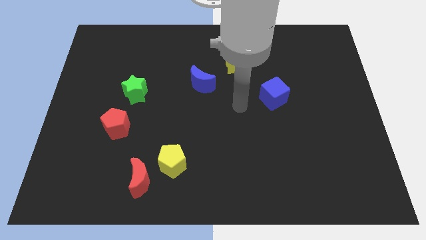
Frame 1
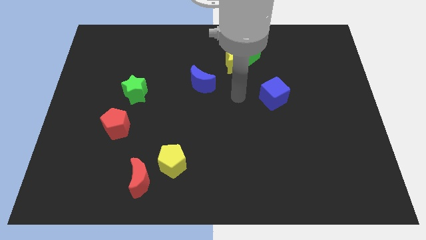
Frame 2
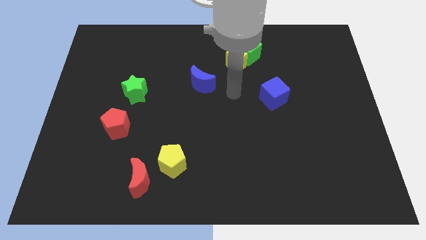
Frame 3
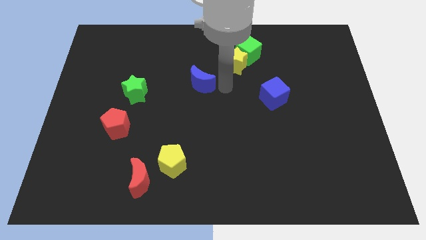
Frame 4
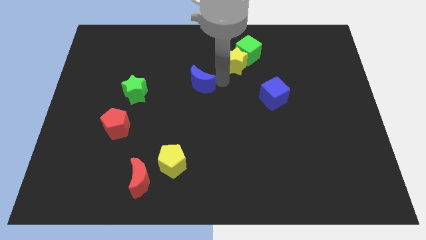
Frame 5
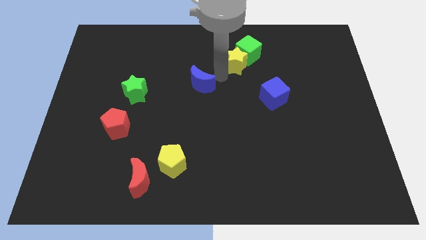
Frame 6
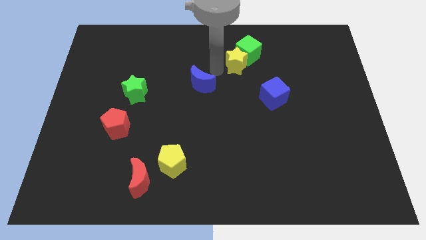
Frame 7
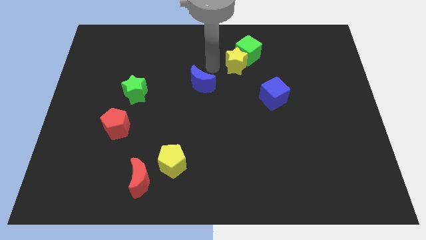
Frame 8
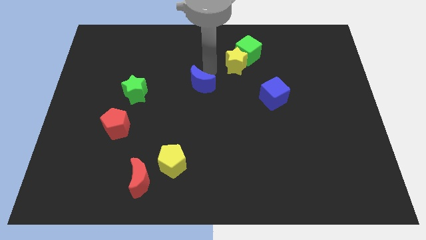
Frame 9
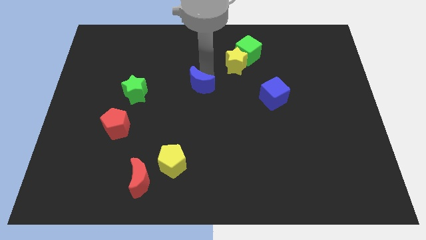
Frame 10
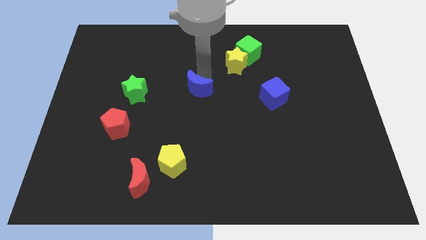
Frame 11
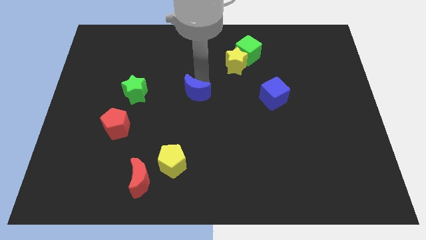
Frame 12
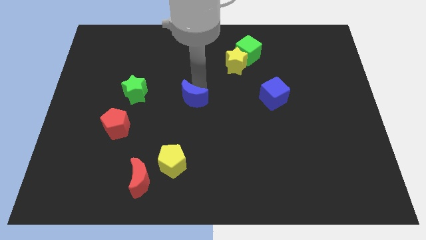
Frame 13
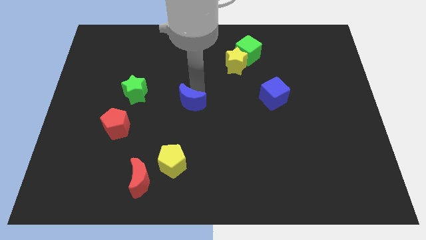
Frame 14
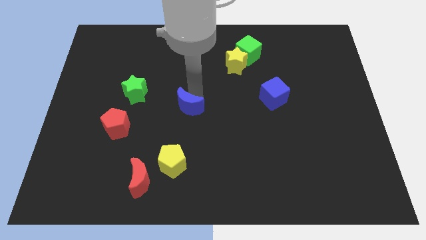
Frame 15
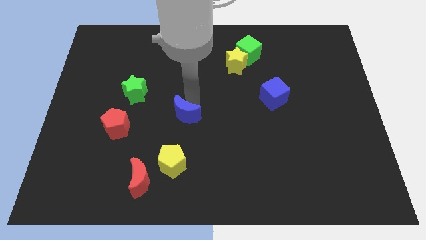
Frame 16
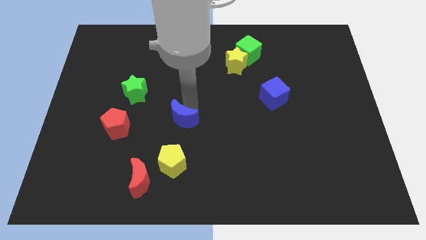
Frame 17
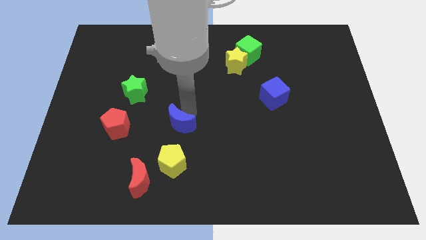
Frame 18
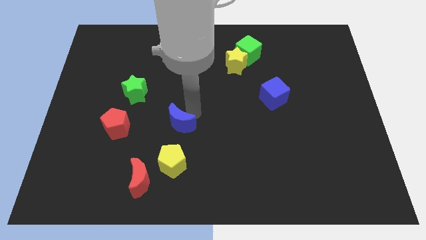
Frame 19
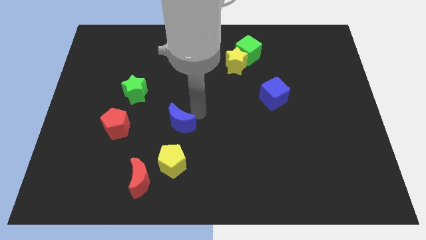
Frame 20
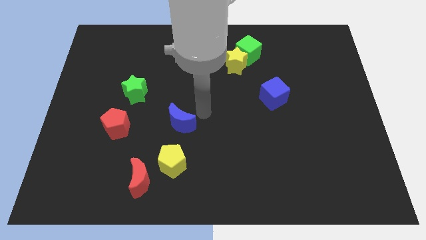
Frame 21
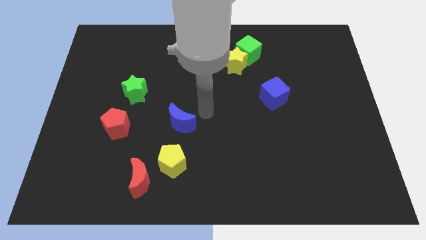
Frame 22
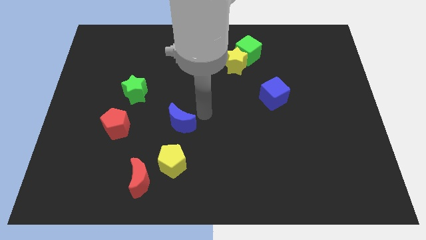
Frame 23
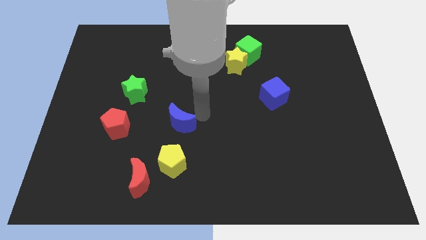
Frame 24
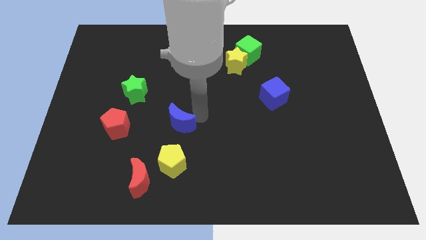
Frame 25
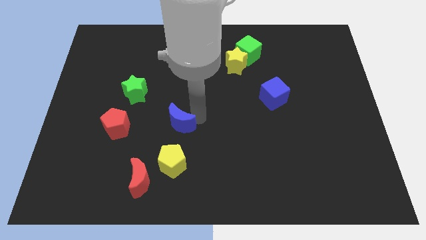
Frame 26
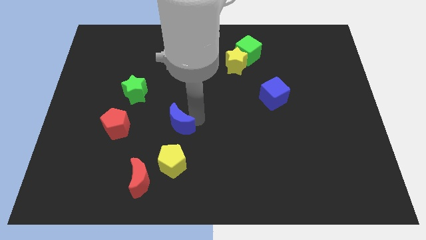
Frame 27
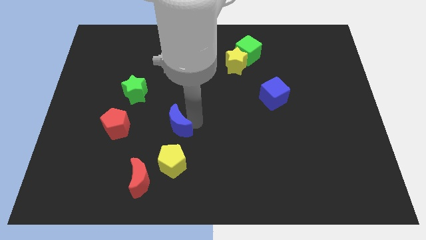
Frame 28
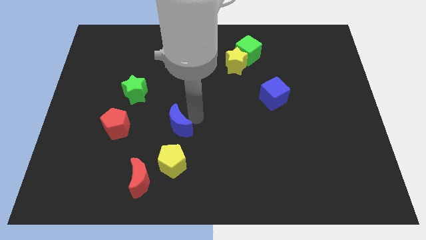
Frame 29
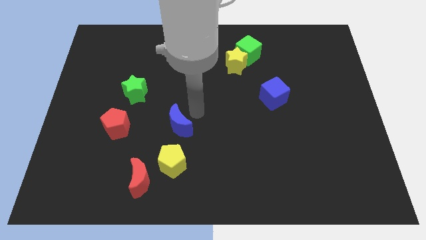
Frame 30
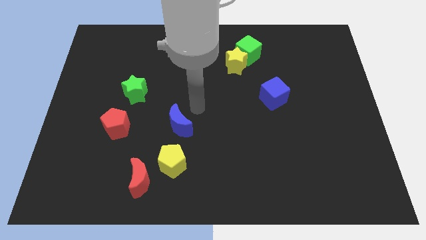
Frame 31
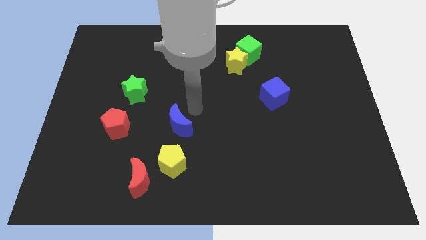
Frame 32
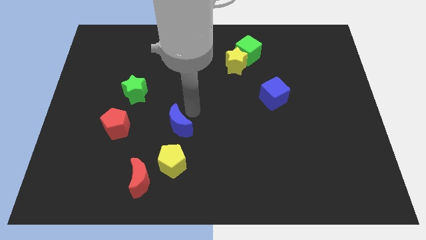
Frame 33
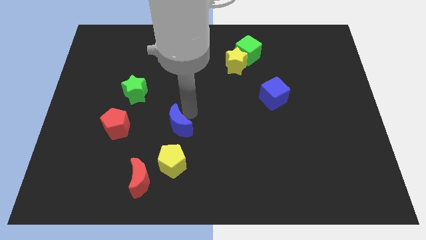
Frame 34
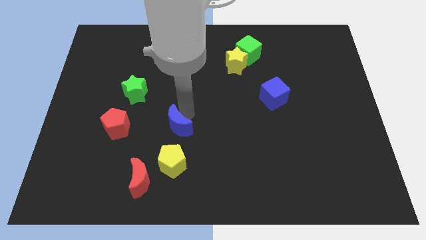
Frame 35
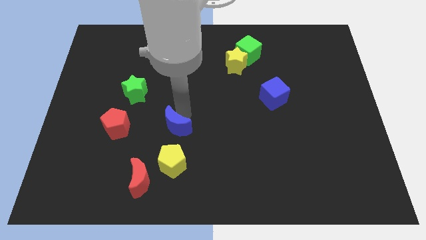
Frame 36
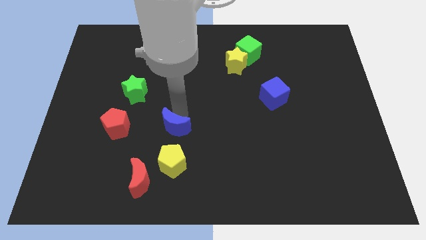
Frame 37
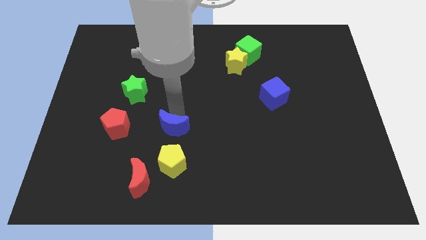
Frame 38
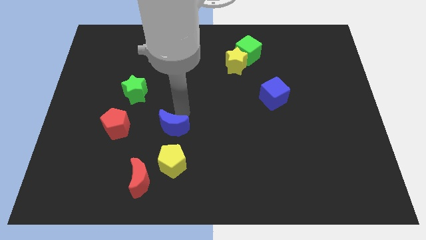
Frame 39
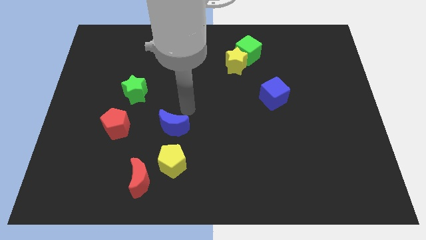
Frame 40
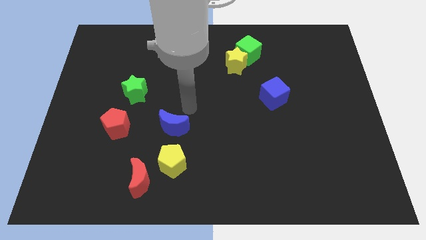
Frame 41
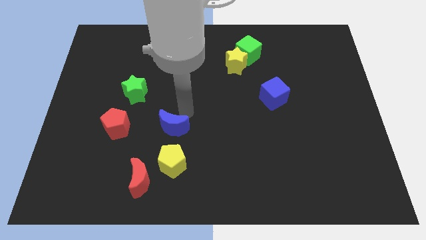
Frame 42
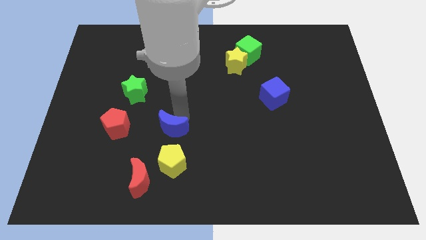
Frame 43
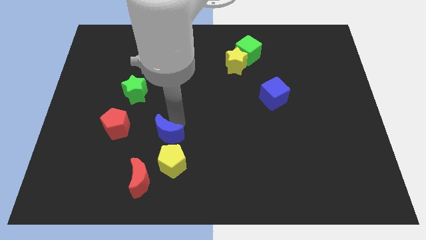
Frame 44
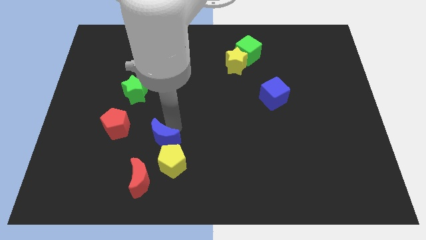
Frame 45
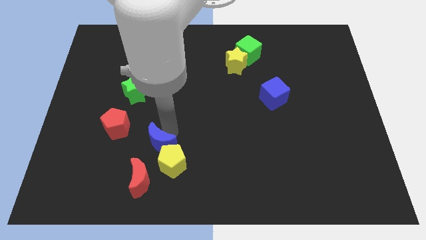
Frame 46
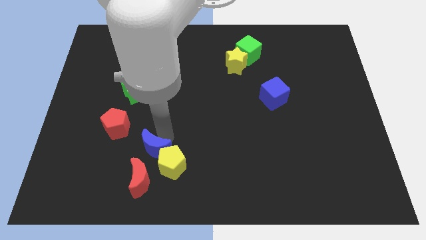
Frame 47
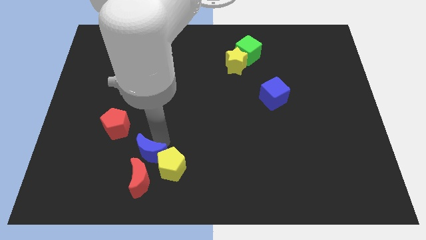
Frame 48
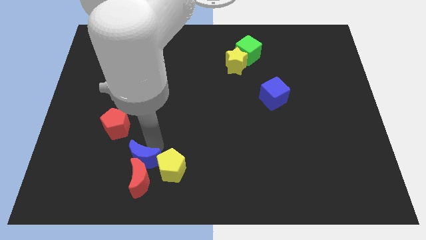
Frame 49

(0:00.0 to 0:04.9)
put the blue moon next to the red moon

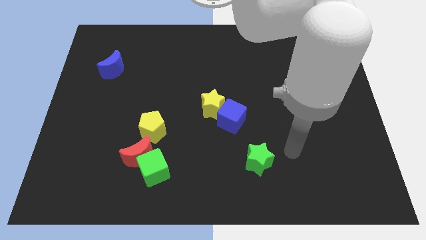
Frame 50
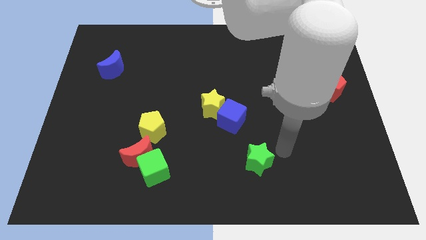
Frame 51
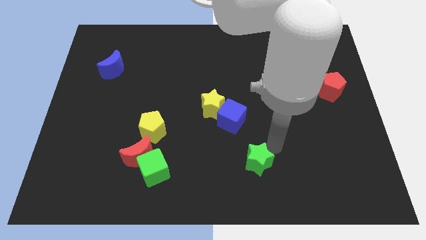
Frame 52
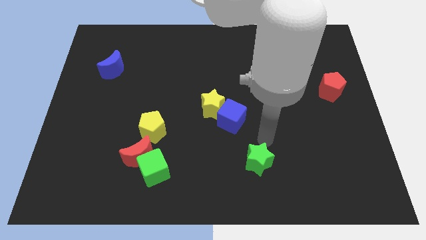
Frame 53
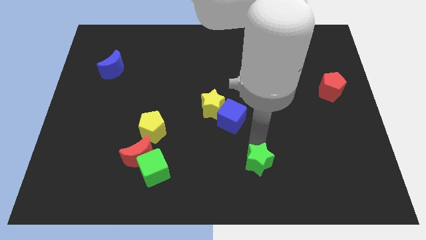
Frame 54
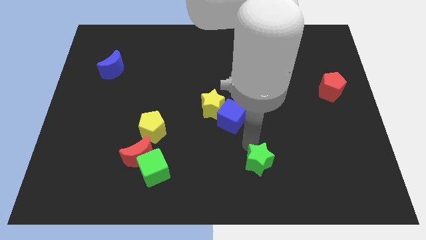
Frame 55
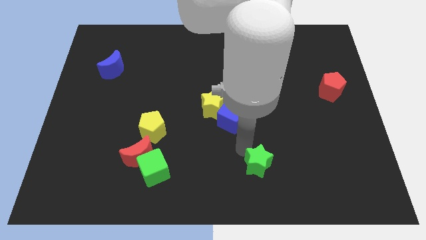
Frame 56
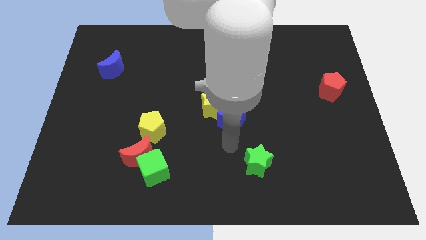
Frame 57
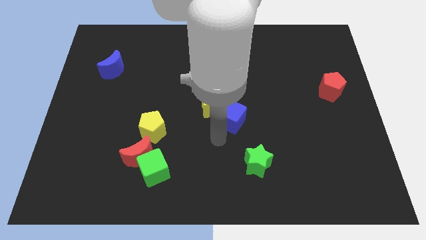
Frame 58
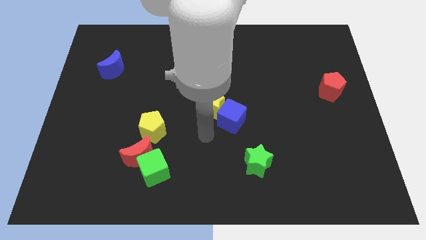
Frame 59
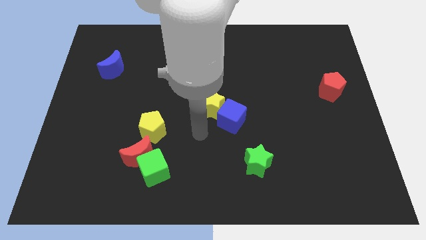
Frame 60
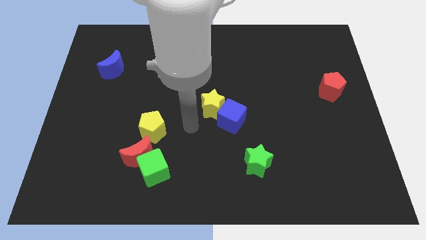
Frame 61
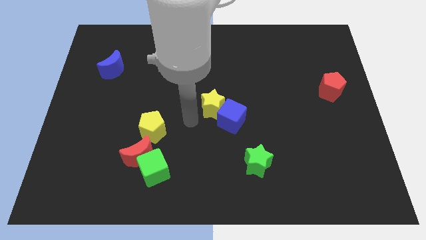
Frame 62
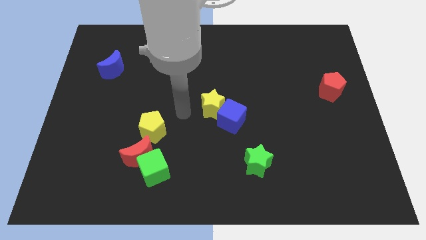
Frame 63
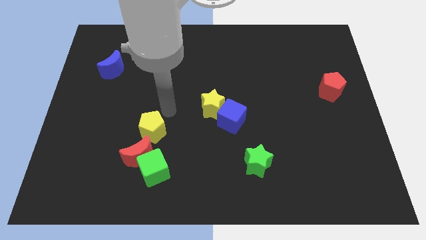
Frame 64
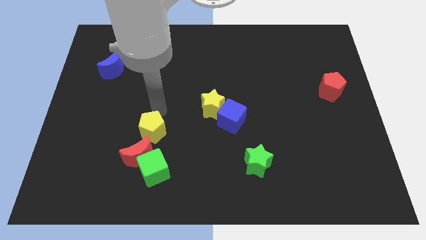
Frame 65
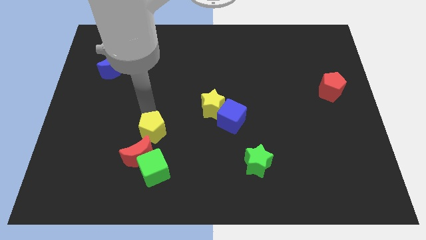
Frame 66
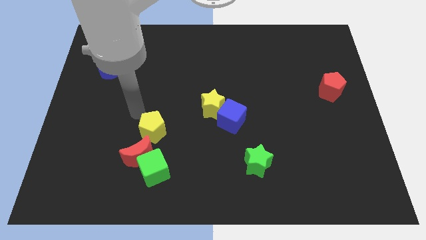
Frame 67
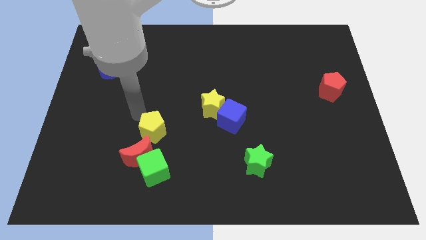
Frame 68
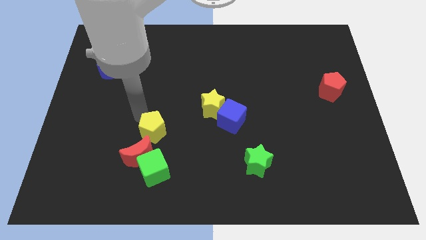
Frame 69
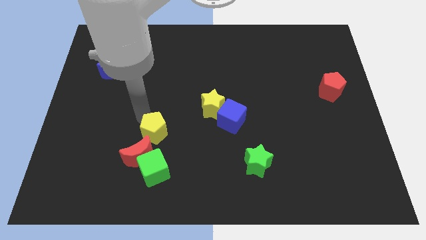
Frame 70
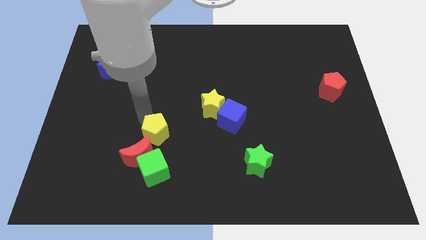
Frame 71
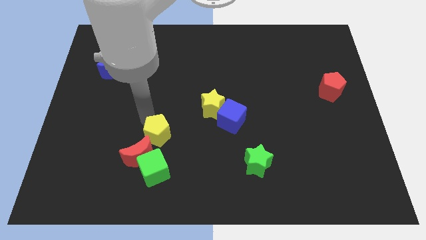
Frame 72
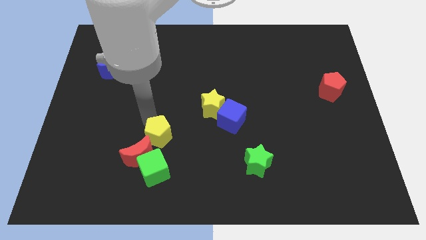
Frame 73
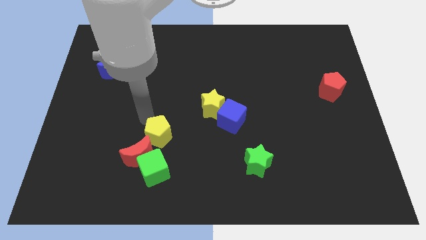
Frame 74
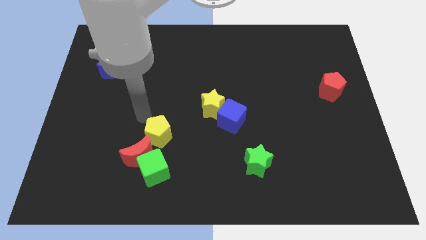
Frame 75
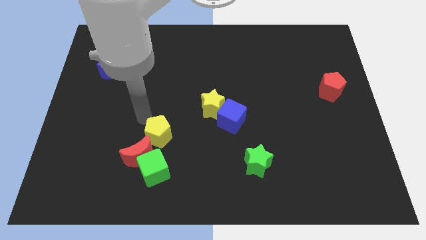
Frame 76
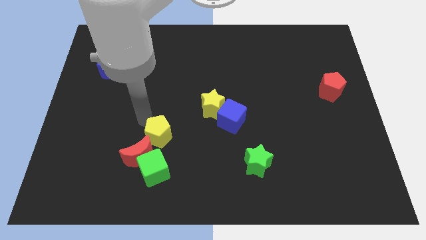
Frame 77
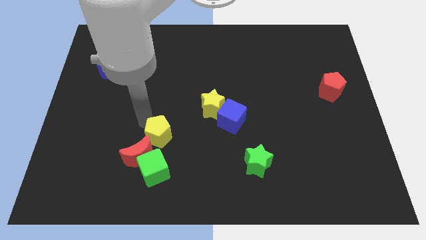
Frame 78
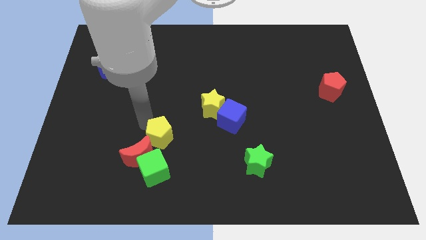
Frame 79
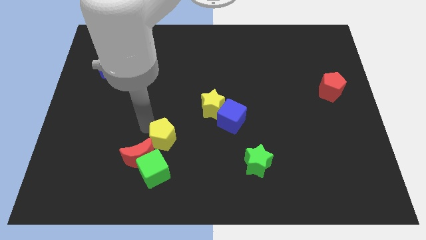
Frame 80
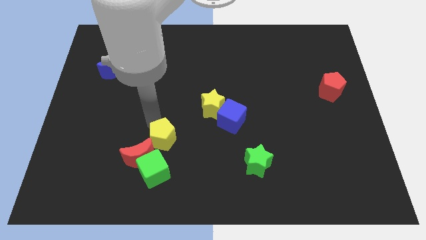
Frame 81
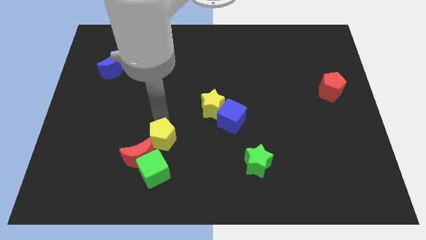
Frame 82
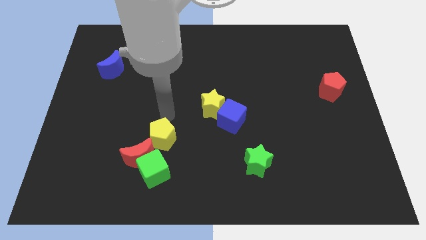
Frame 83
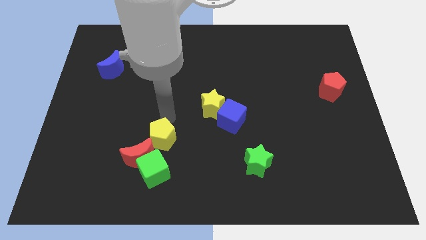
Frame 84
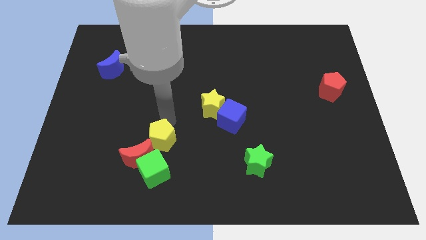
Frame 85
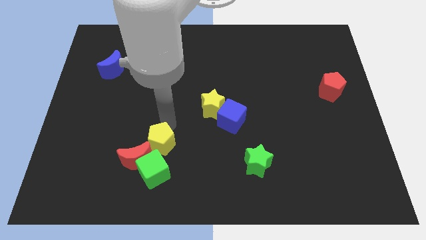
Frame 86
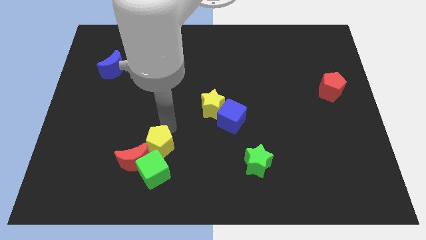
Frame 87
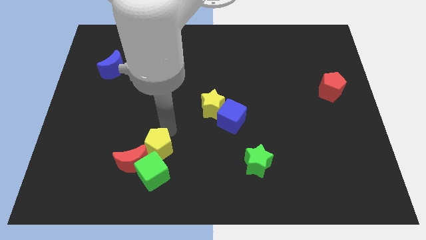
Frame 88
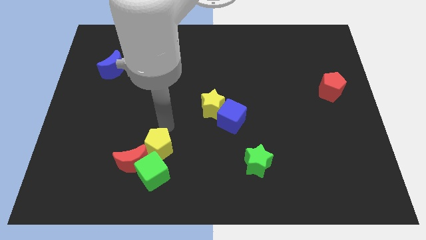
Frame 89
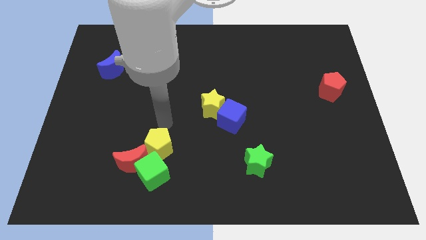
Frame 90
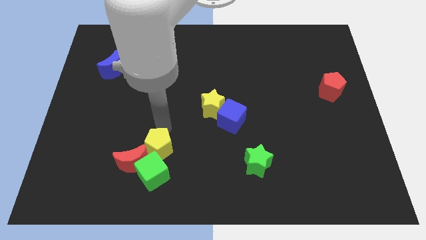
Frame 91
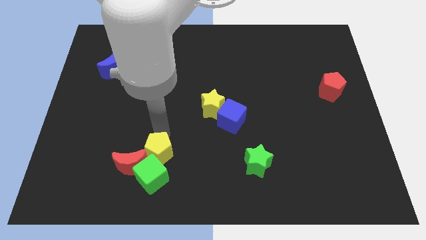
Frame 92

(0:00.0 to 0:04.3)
slide the yellow pentagon towards the green cube
